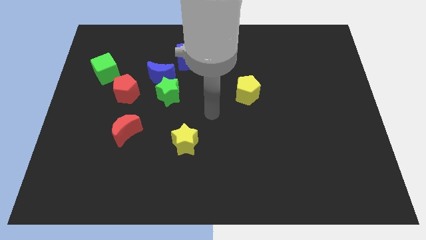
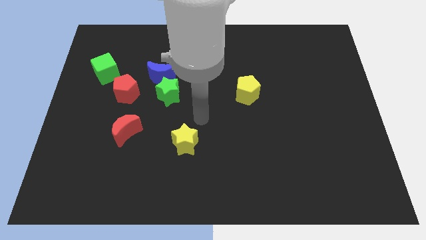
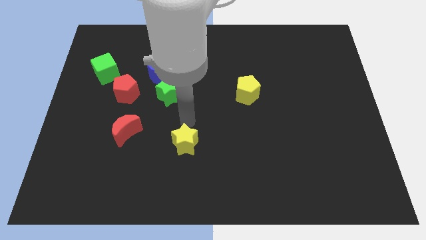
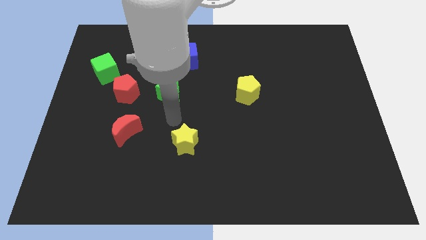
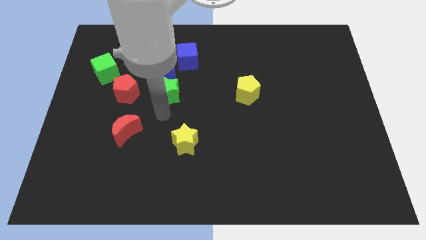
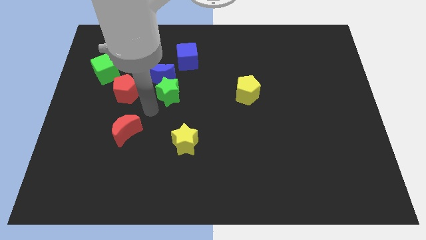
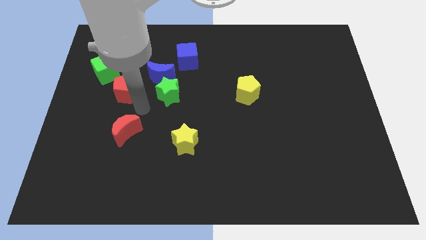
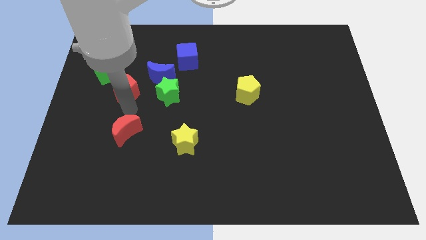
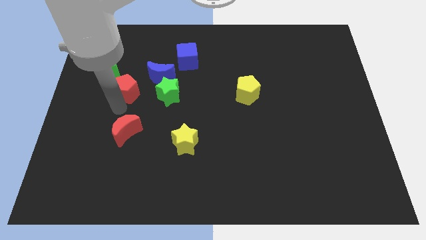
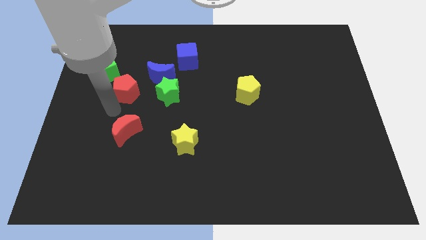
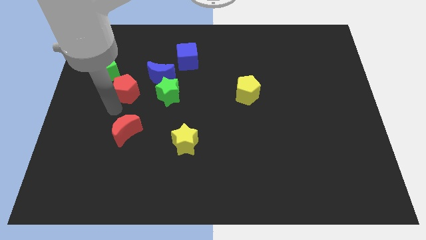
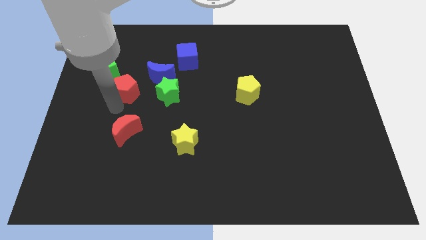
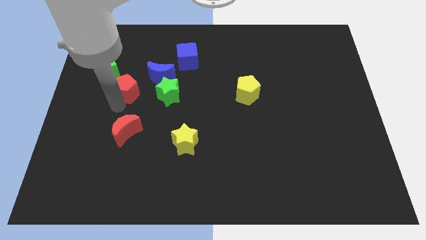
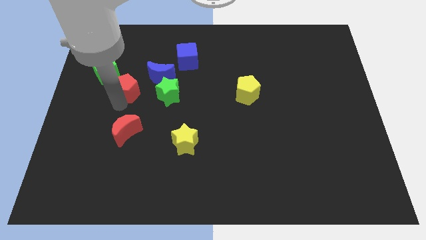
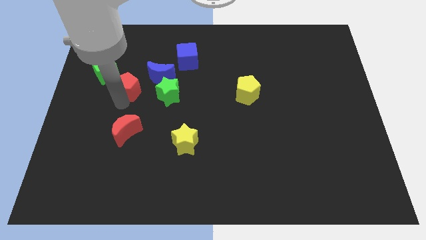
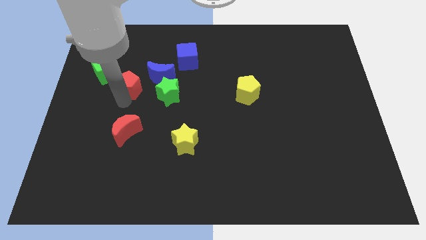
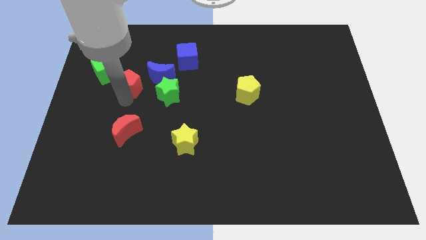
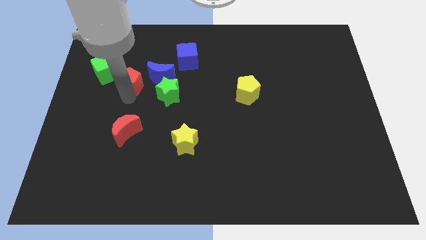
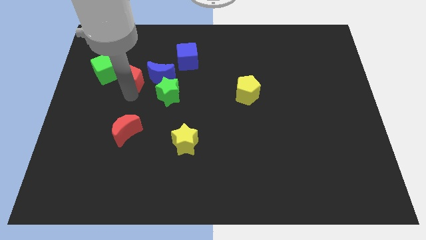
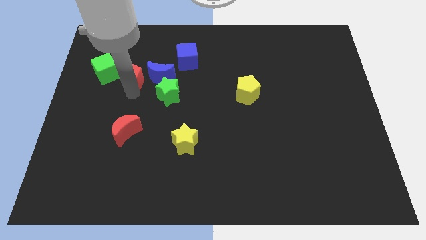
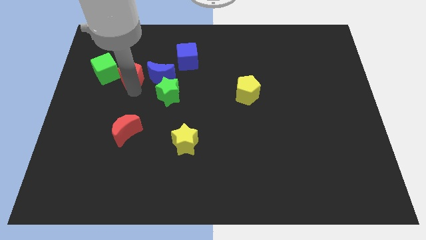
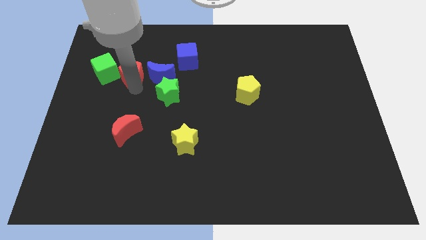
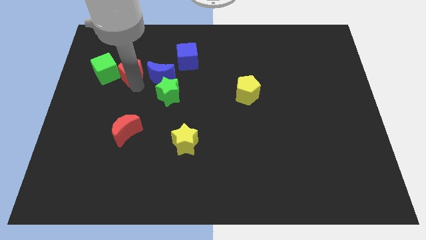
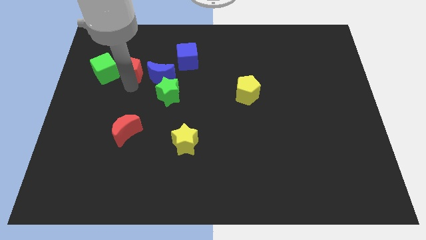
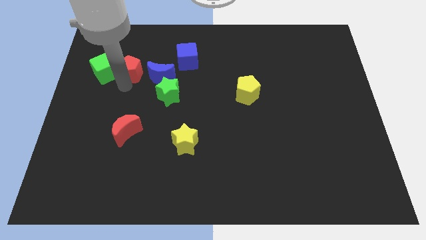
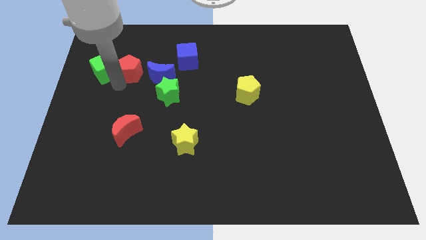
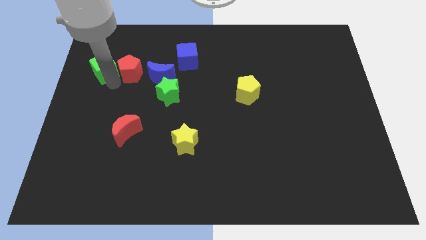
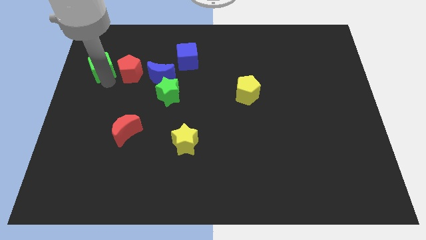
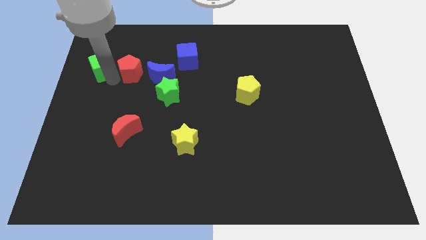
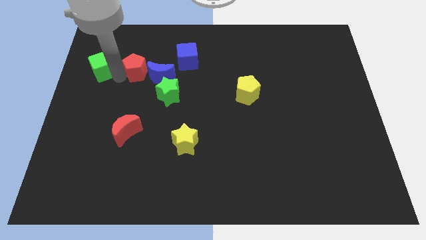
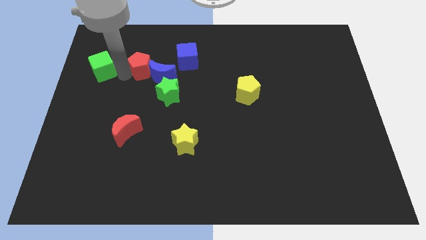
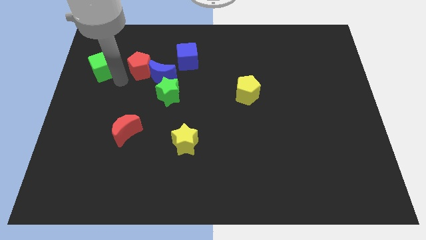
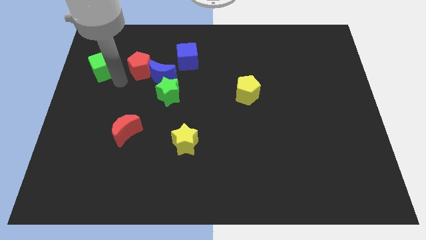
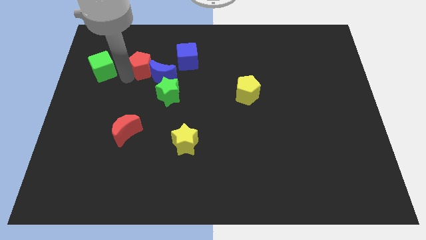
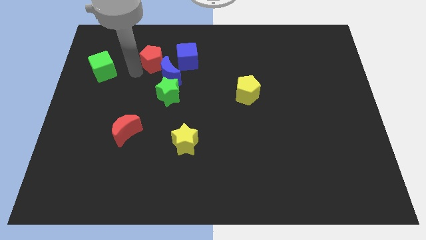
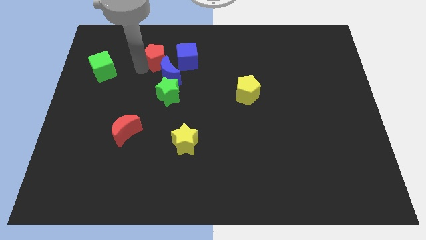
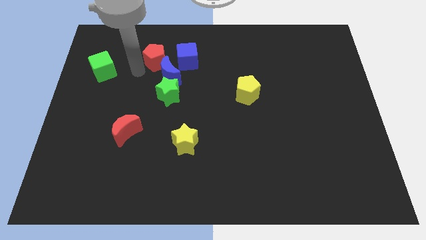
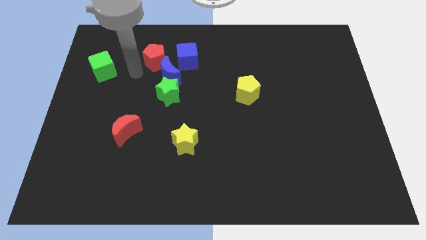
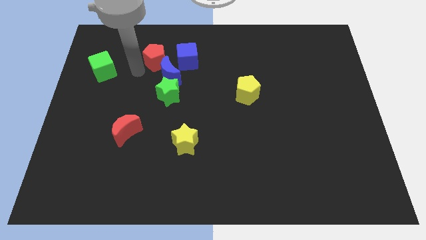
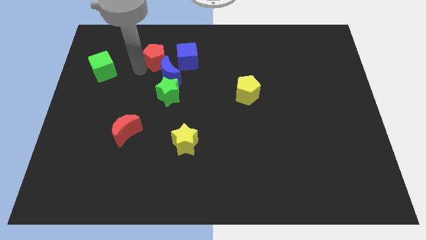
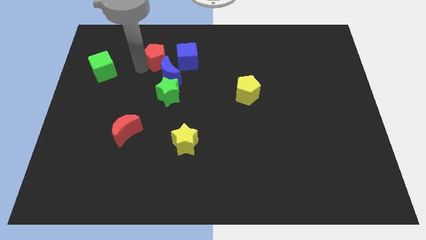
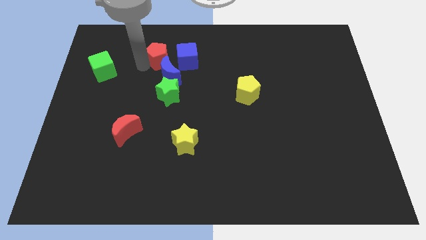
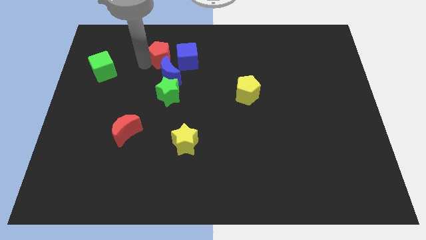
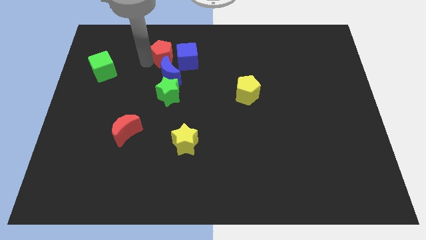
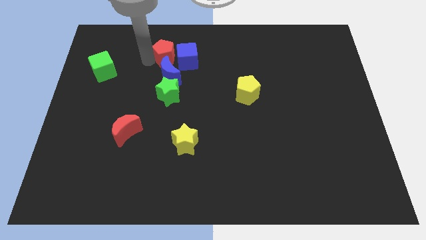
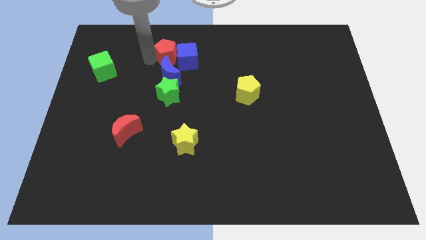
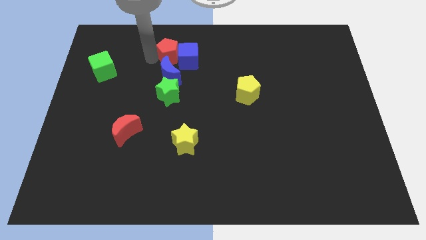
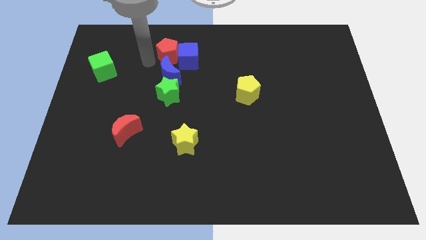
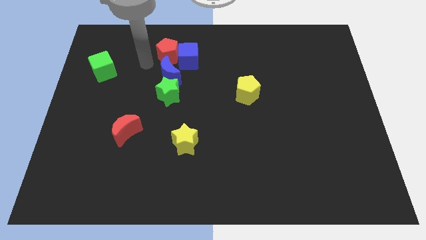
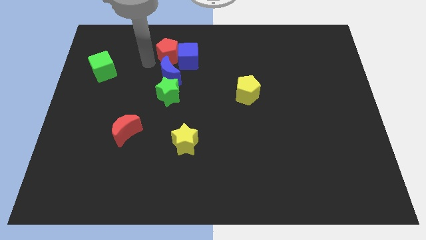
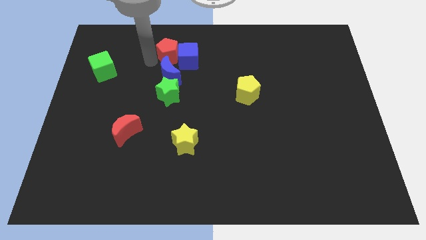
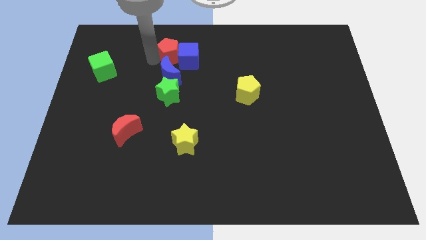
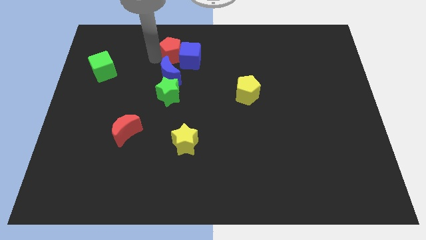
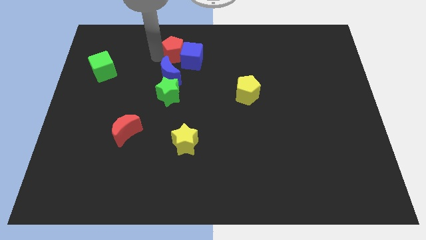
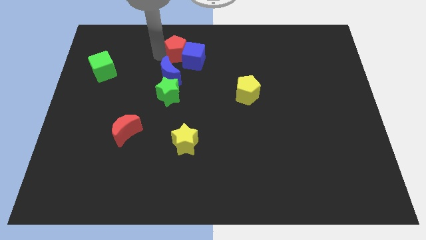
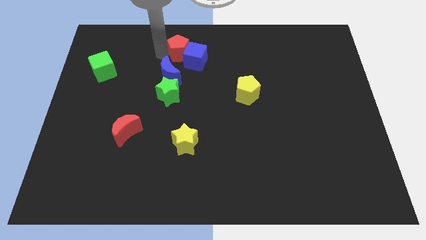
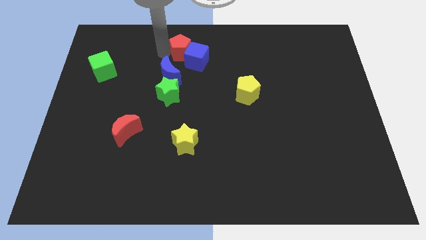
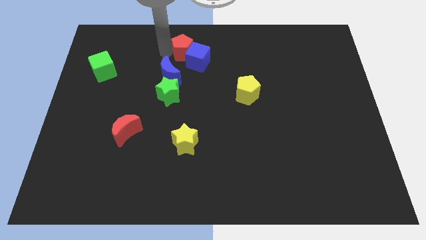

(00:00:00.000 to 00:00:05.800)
move the red pentagon to the towards your base
